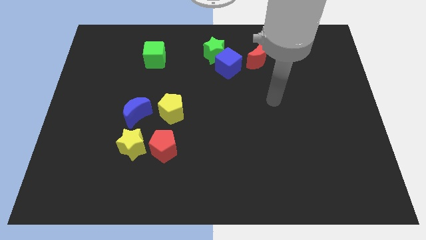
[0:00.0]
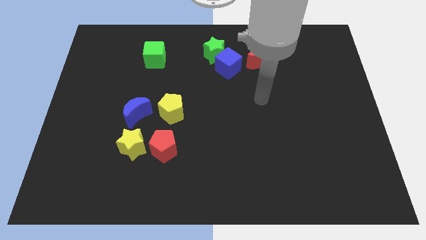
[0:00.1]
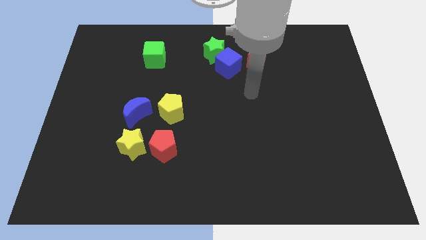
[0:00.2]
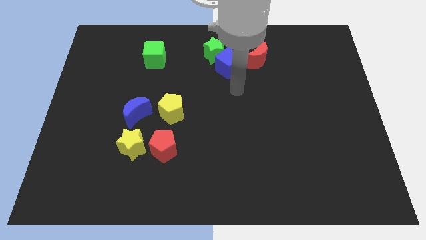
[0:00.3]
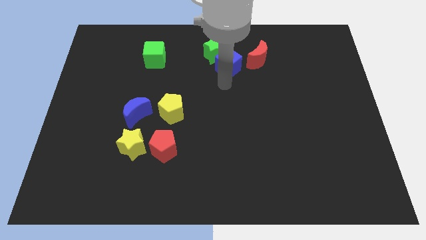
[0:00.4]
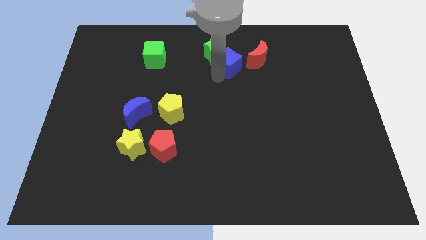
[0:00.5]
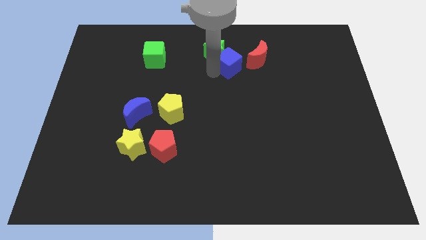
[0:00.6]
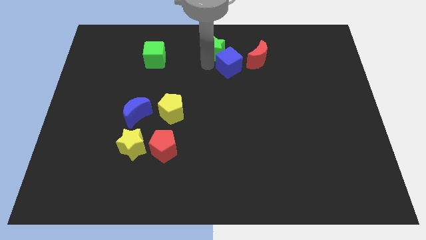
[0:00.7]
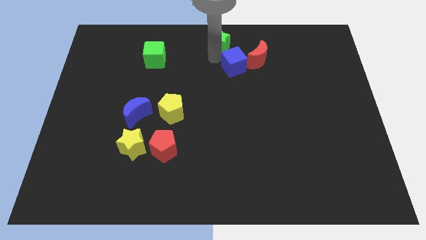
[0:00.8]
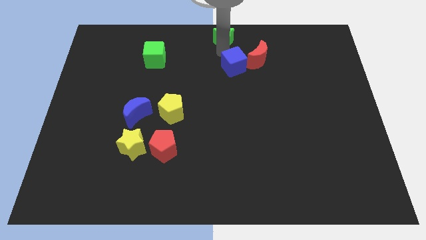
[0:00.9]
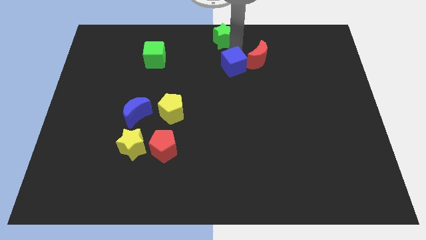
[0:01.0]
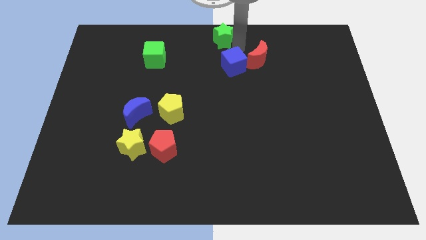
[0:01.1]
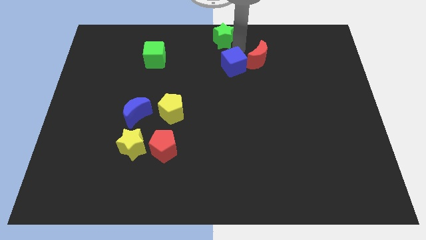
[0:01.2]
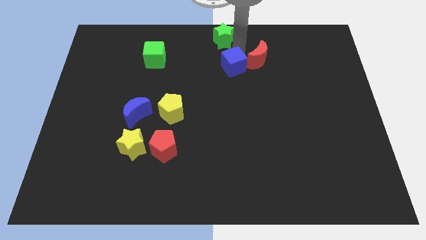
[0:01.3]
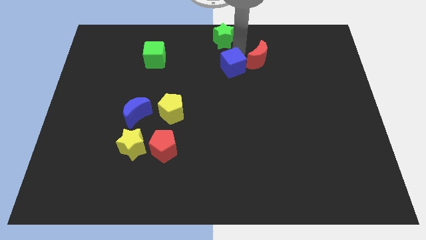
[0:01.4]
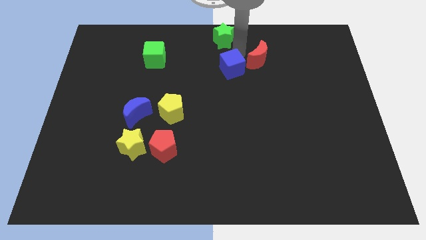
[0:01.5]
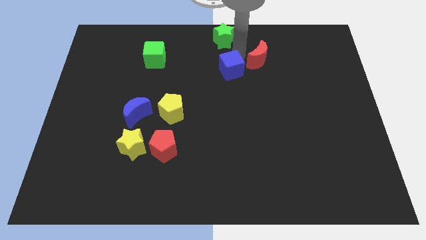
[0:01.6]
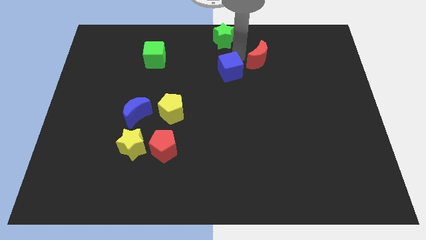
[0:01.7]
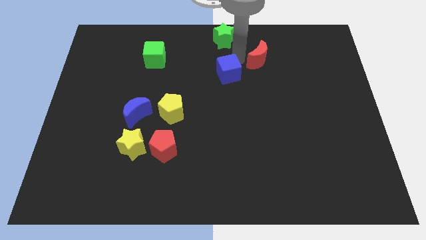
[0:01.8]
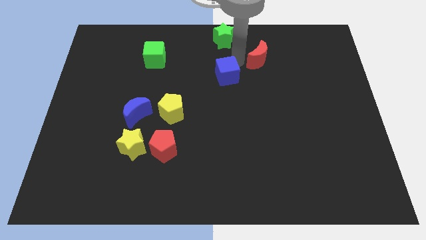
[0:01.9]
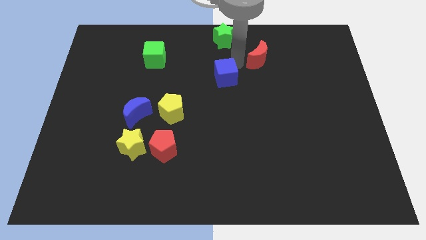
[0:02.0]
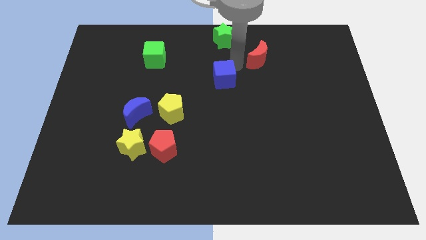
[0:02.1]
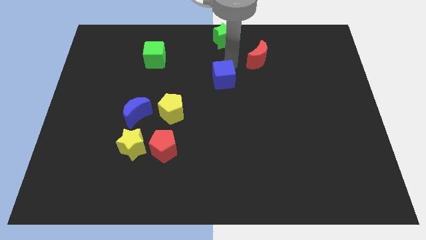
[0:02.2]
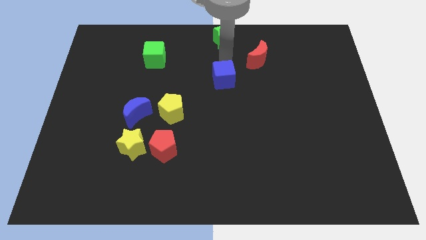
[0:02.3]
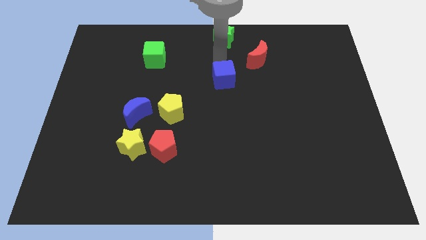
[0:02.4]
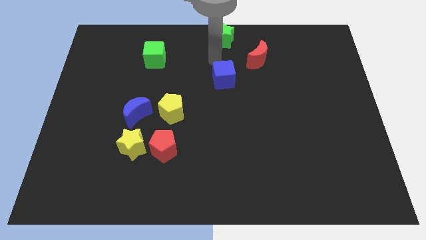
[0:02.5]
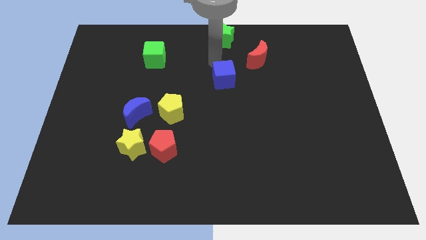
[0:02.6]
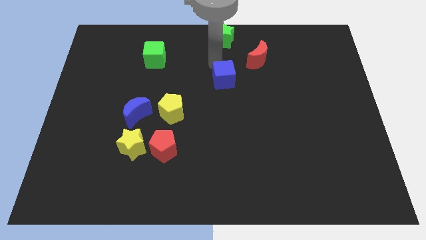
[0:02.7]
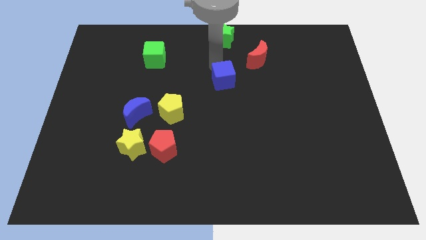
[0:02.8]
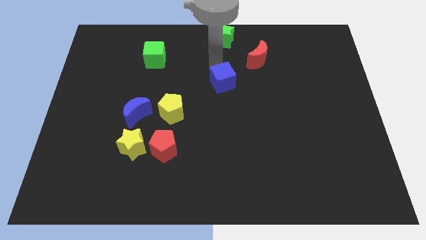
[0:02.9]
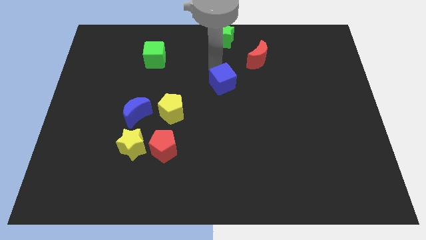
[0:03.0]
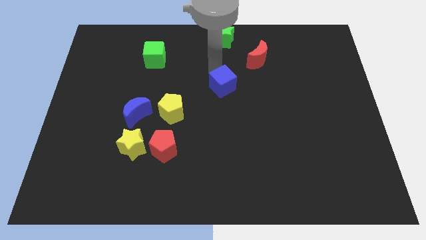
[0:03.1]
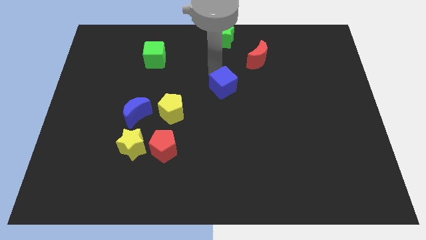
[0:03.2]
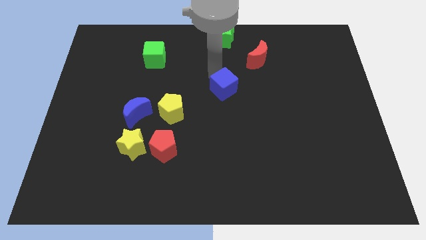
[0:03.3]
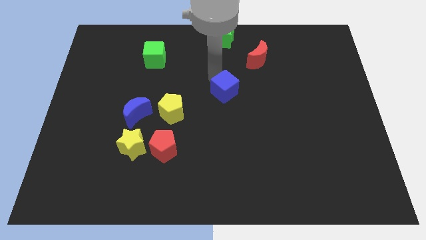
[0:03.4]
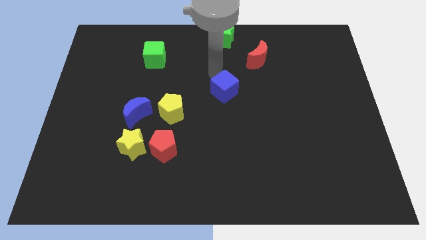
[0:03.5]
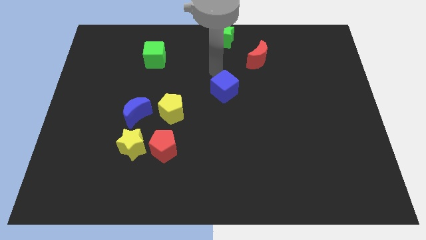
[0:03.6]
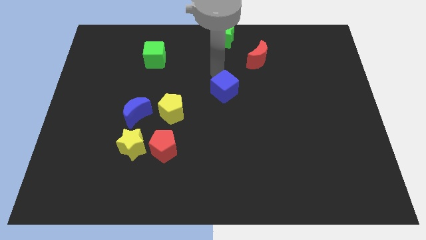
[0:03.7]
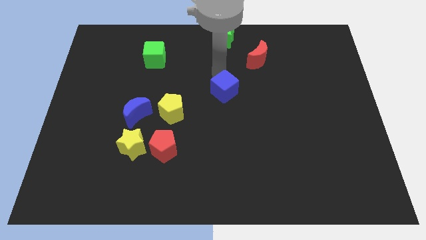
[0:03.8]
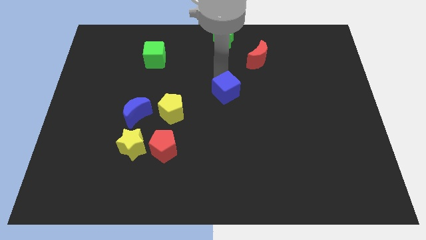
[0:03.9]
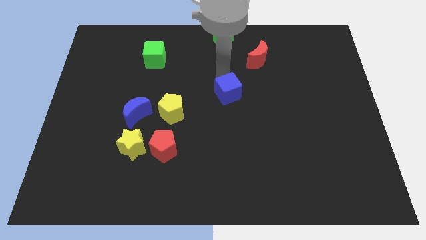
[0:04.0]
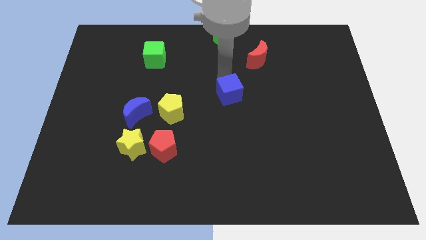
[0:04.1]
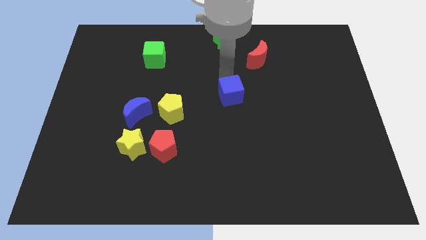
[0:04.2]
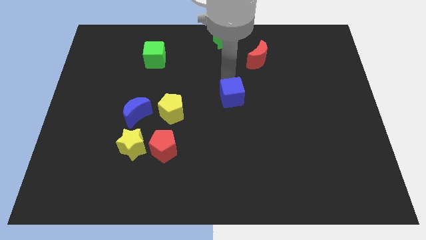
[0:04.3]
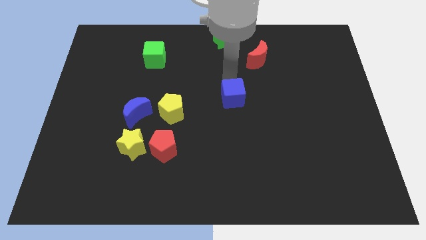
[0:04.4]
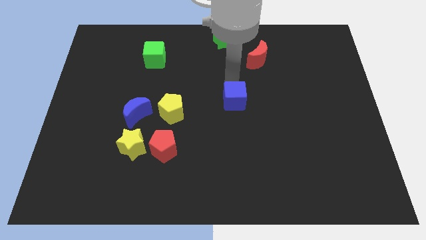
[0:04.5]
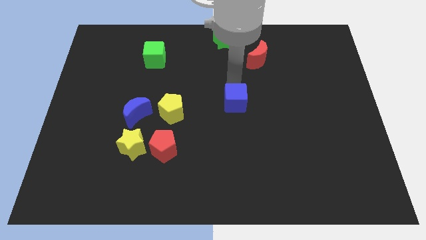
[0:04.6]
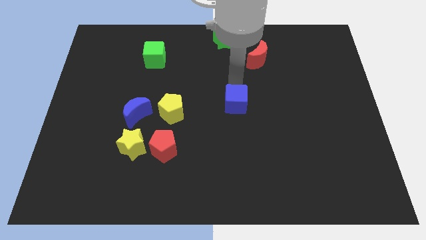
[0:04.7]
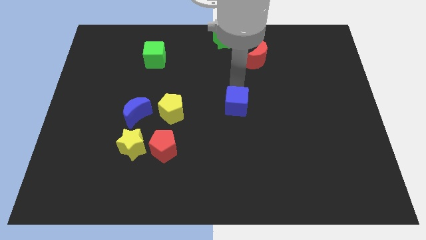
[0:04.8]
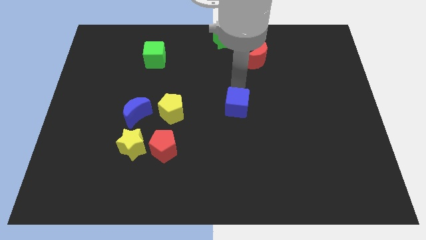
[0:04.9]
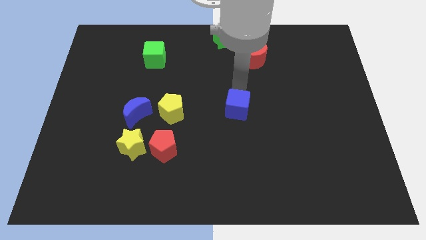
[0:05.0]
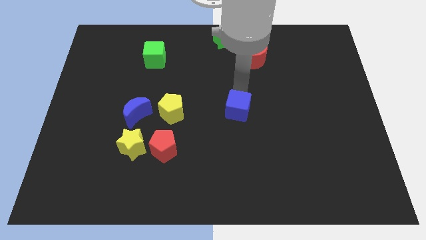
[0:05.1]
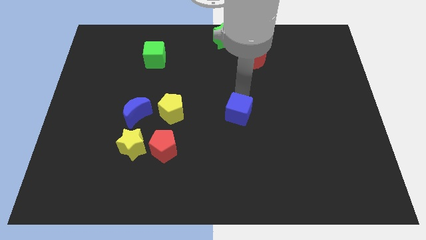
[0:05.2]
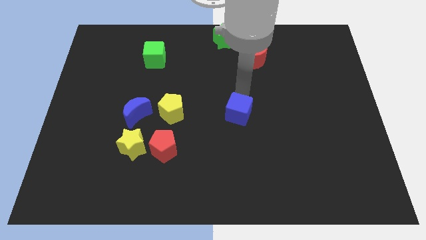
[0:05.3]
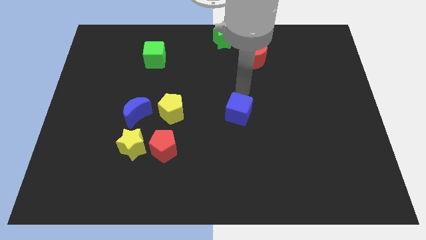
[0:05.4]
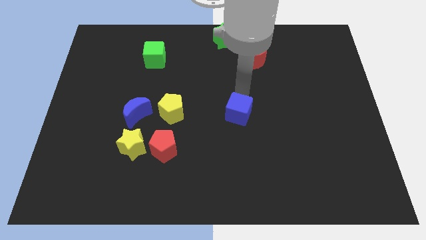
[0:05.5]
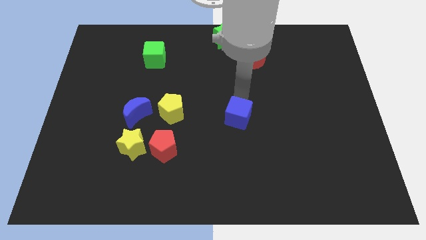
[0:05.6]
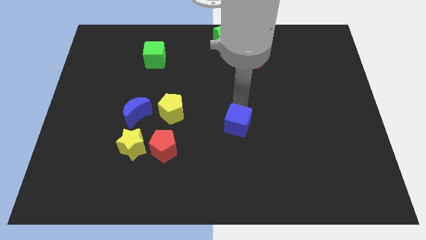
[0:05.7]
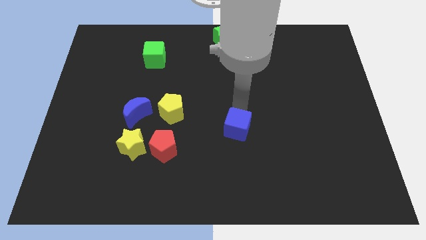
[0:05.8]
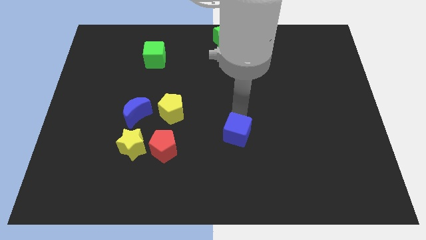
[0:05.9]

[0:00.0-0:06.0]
slide the blue cube downwards

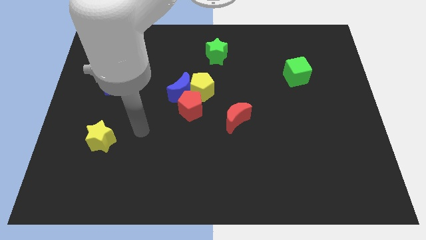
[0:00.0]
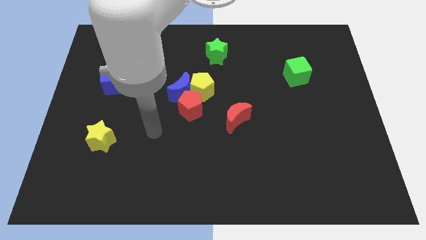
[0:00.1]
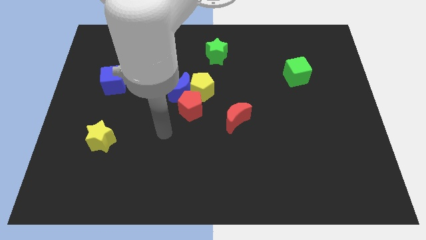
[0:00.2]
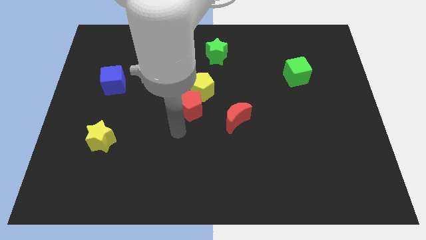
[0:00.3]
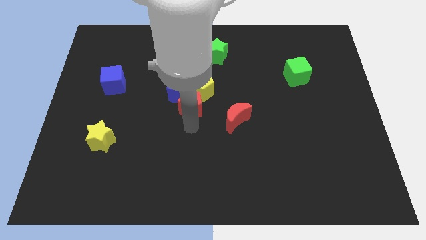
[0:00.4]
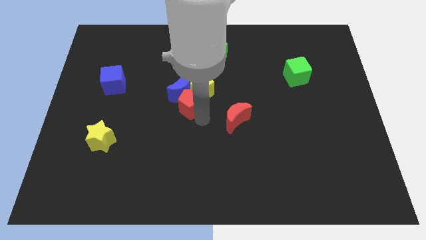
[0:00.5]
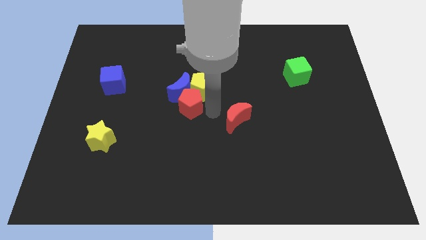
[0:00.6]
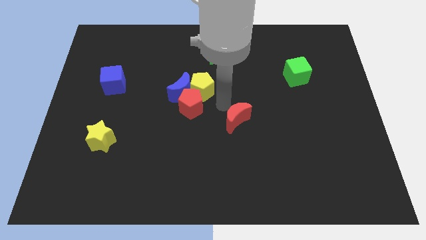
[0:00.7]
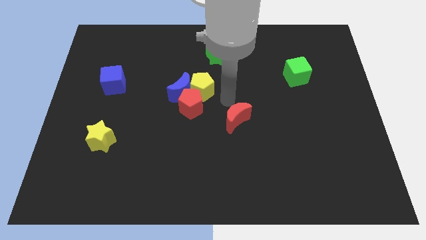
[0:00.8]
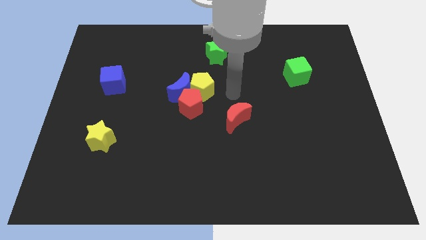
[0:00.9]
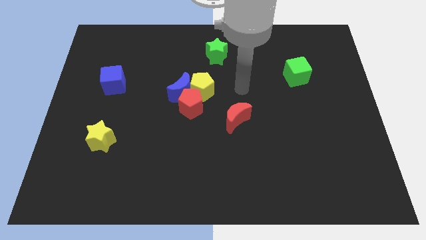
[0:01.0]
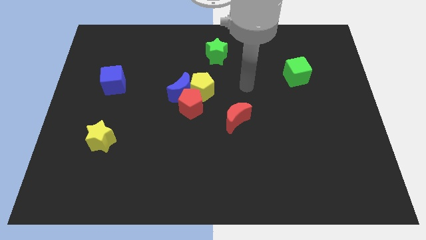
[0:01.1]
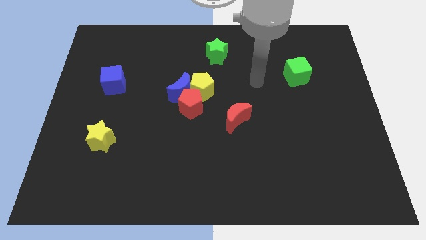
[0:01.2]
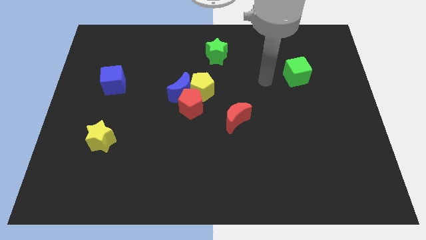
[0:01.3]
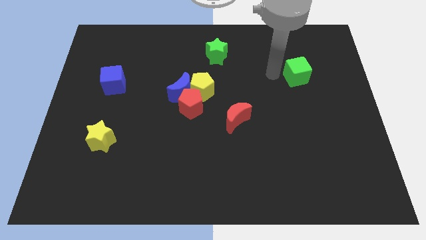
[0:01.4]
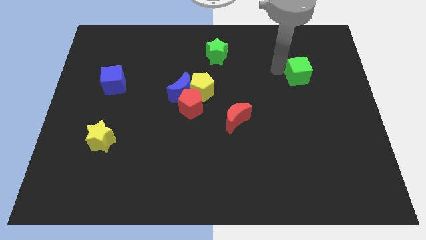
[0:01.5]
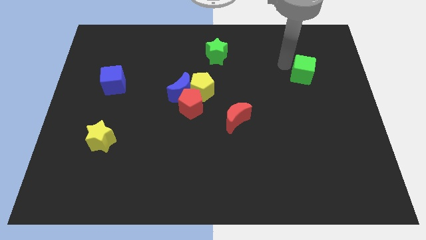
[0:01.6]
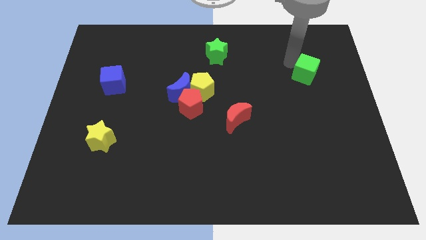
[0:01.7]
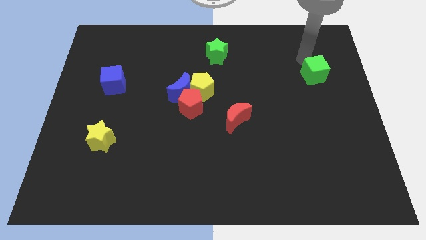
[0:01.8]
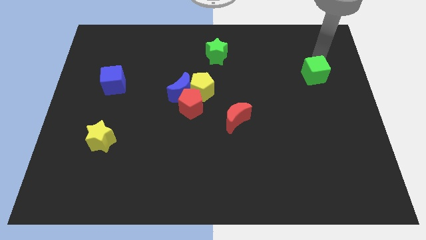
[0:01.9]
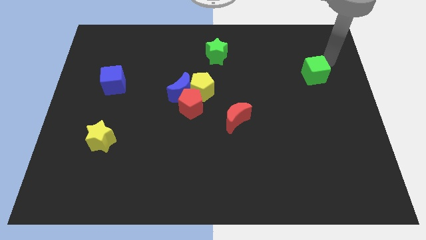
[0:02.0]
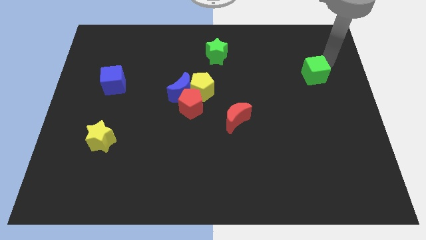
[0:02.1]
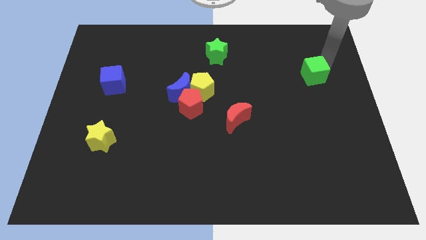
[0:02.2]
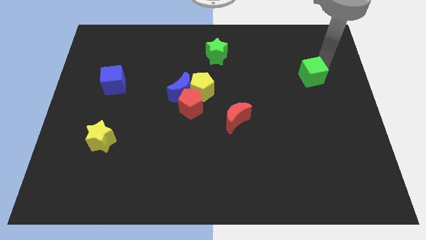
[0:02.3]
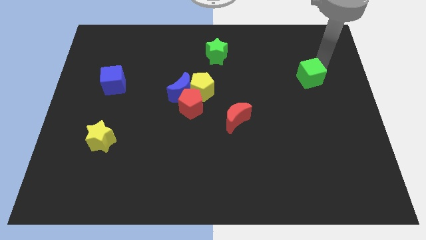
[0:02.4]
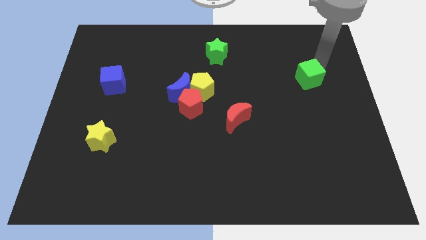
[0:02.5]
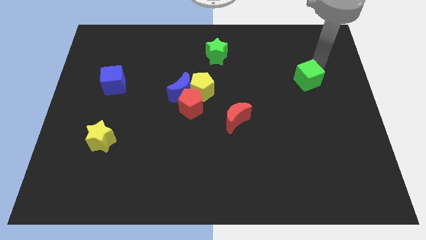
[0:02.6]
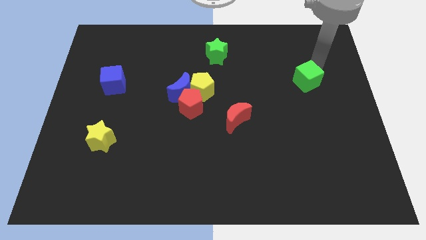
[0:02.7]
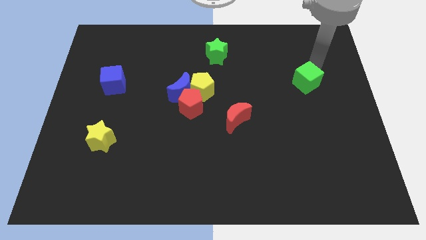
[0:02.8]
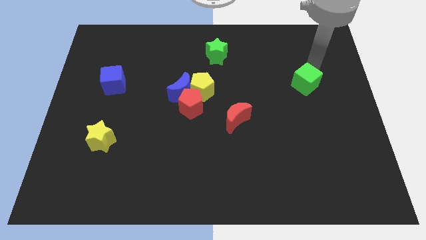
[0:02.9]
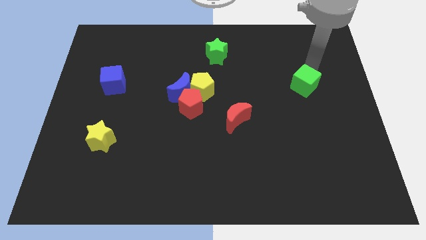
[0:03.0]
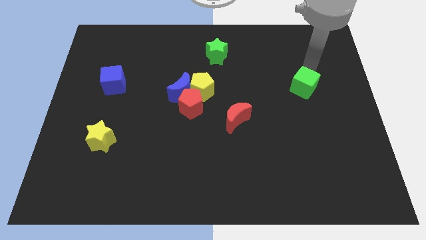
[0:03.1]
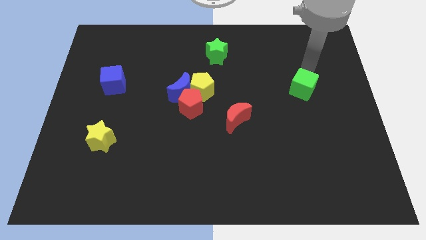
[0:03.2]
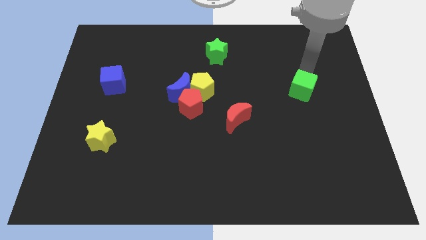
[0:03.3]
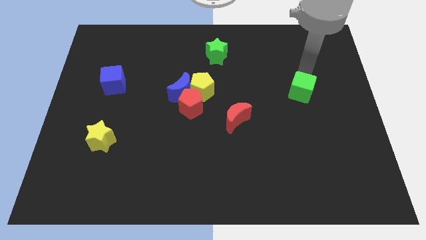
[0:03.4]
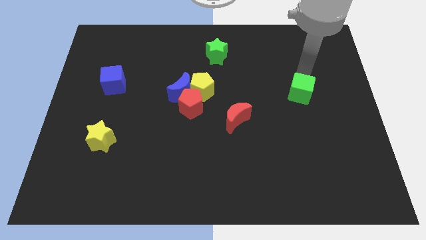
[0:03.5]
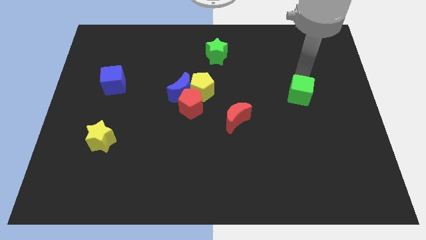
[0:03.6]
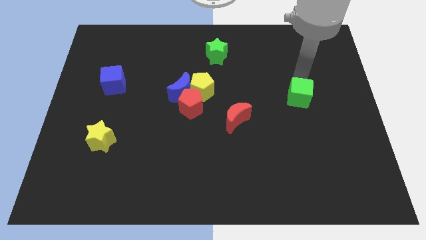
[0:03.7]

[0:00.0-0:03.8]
move the green cube downwards slightly
